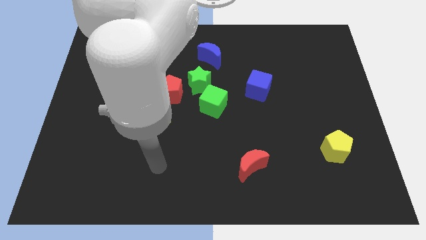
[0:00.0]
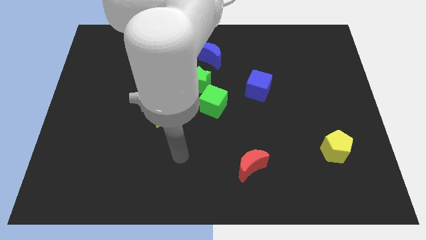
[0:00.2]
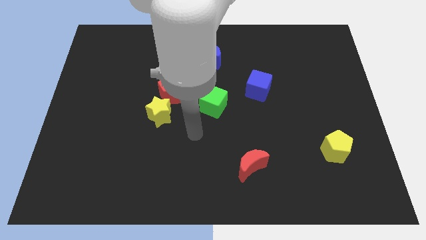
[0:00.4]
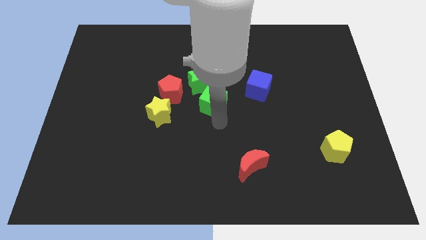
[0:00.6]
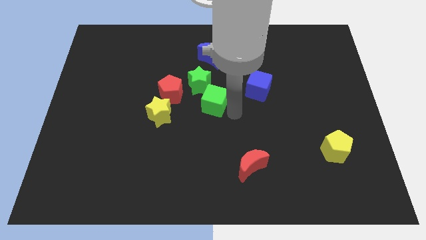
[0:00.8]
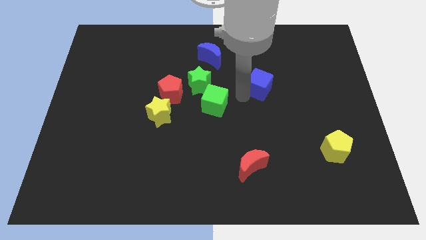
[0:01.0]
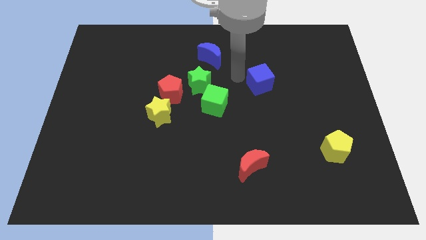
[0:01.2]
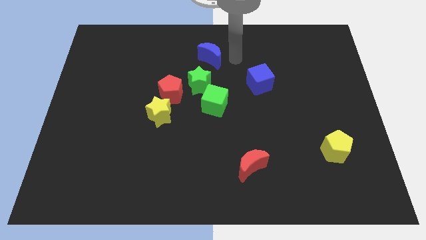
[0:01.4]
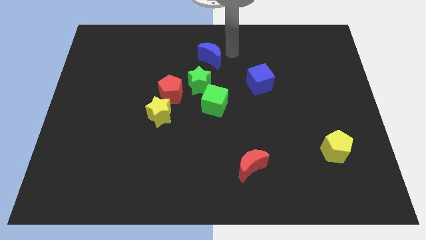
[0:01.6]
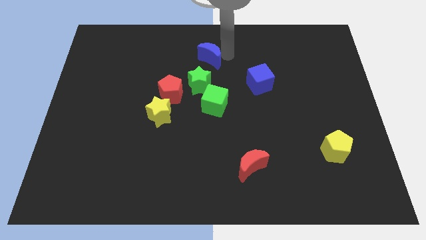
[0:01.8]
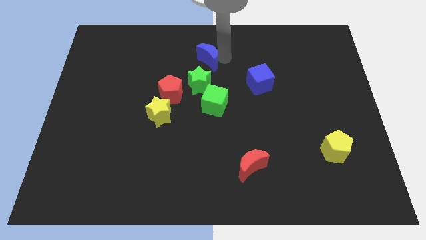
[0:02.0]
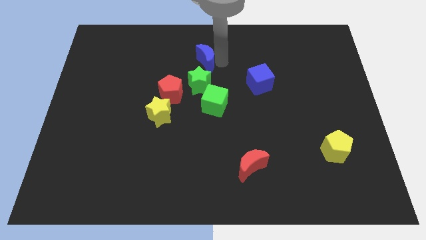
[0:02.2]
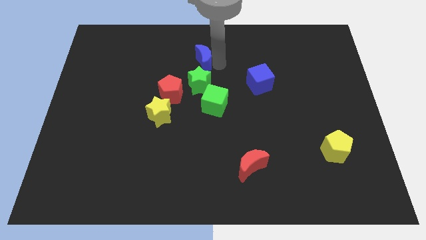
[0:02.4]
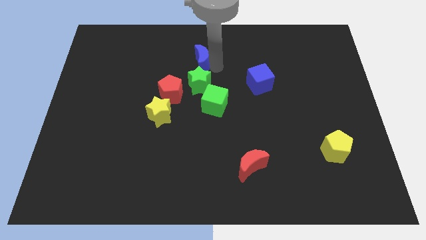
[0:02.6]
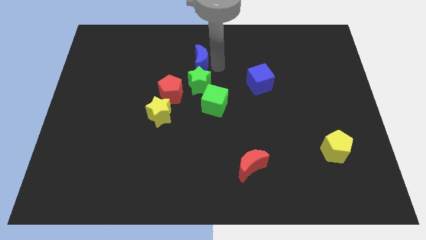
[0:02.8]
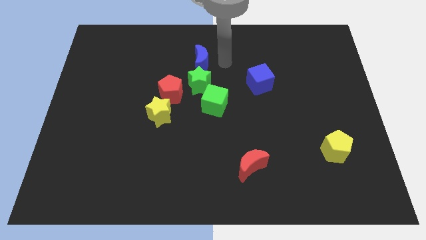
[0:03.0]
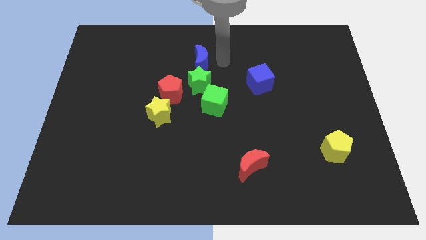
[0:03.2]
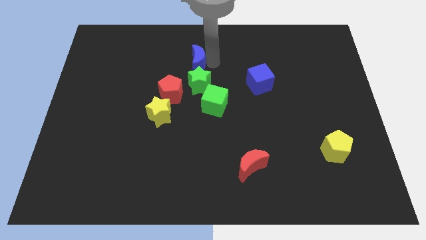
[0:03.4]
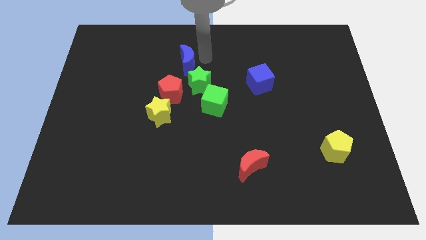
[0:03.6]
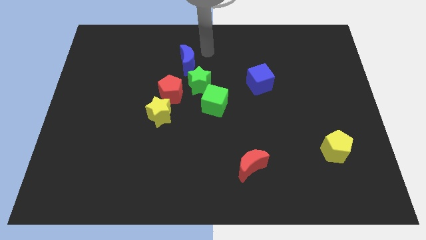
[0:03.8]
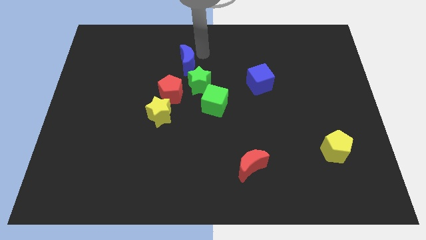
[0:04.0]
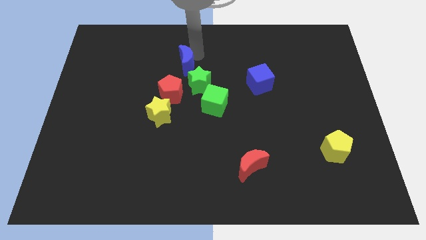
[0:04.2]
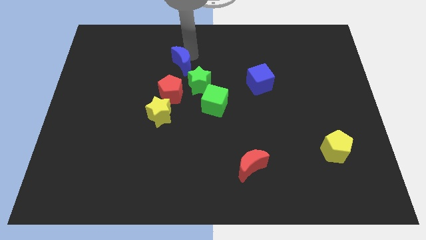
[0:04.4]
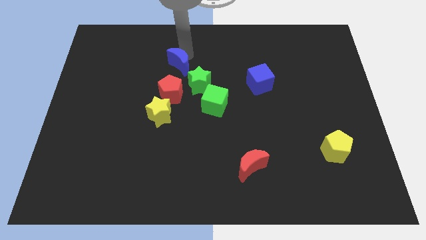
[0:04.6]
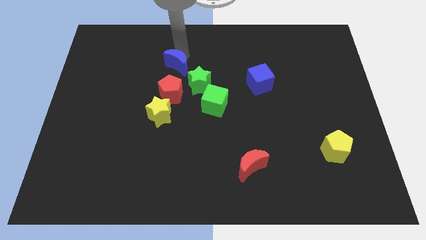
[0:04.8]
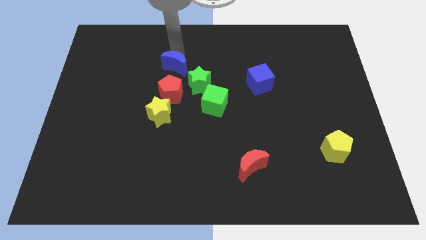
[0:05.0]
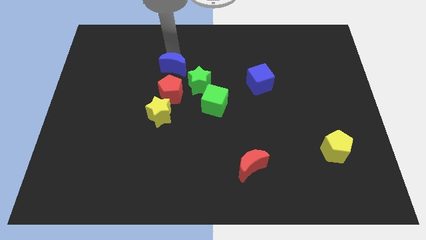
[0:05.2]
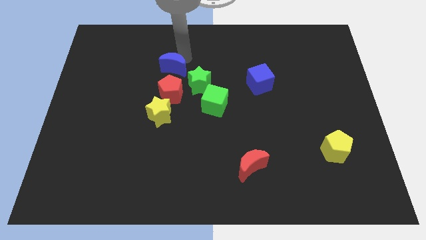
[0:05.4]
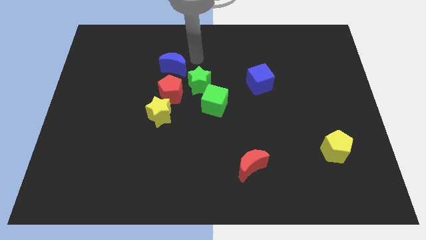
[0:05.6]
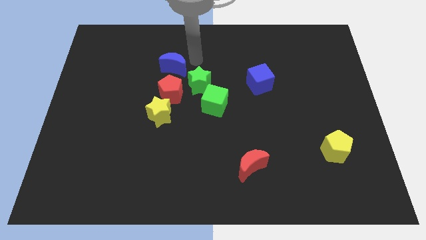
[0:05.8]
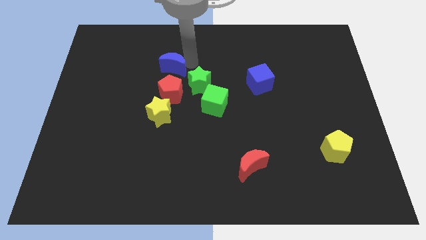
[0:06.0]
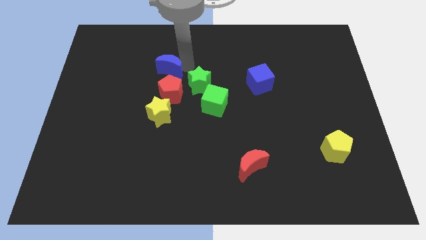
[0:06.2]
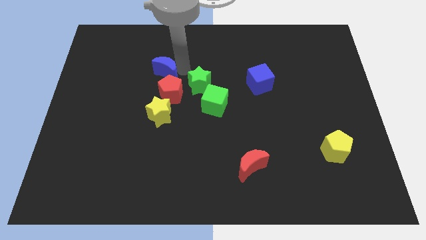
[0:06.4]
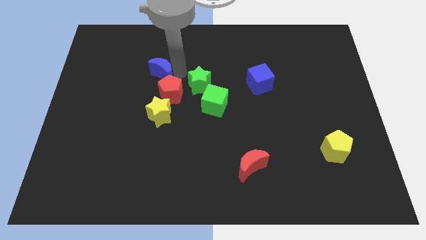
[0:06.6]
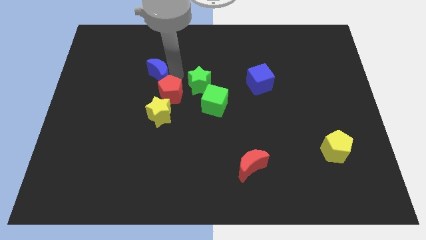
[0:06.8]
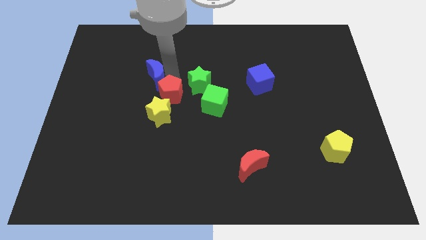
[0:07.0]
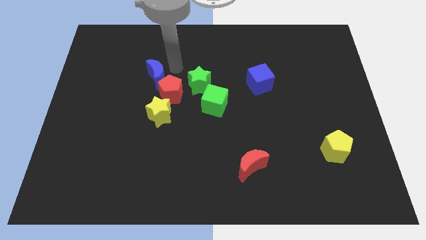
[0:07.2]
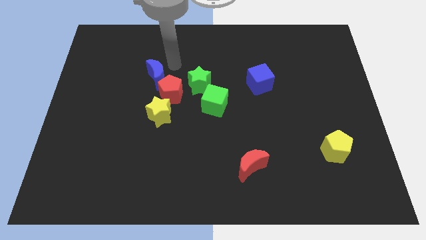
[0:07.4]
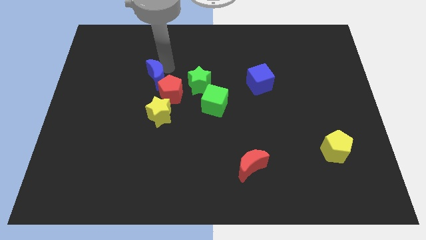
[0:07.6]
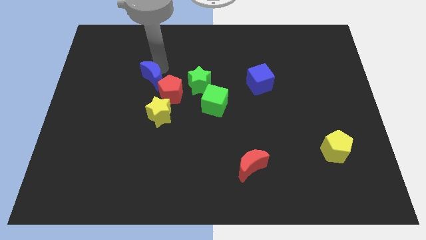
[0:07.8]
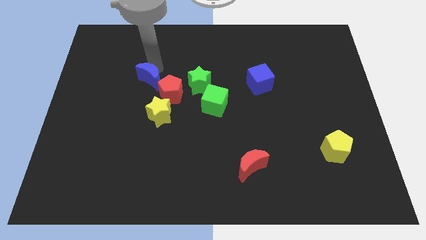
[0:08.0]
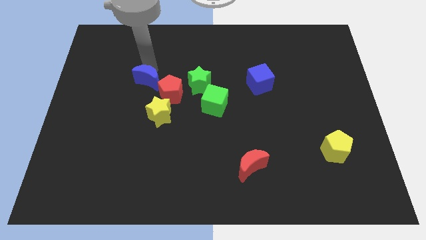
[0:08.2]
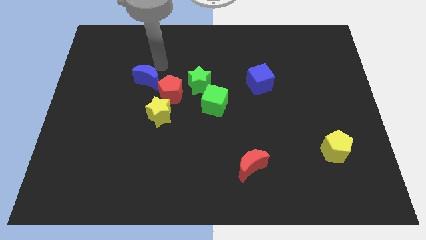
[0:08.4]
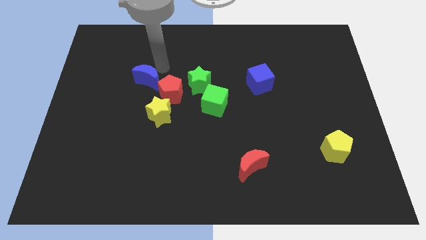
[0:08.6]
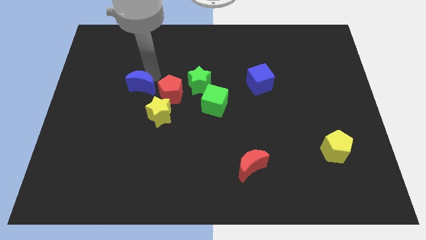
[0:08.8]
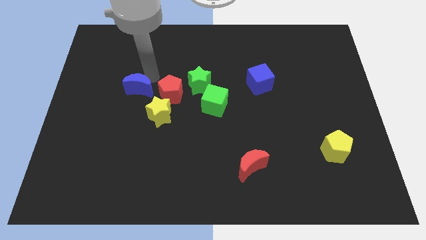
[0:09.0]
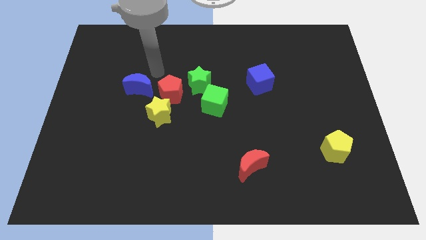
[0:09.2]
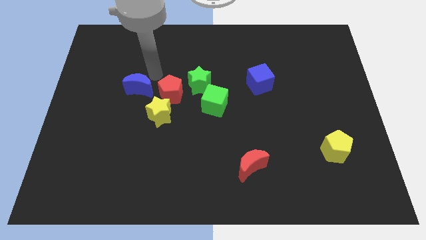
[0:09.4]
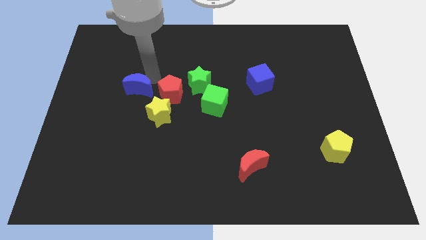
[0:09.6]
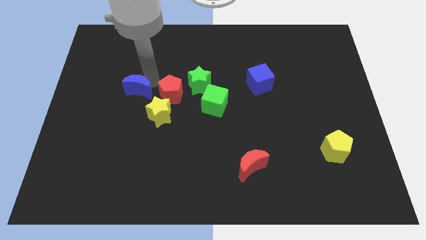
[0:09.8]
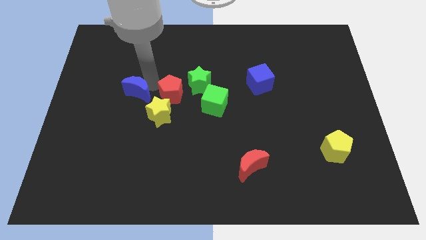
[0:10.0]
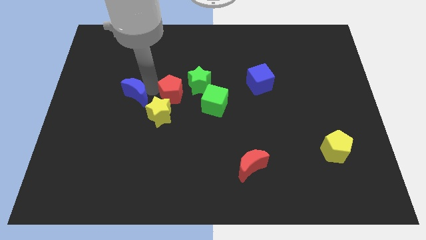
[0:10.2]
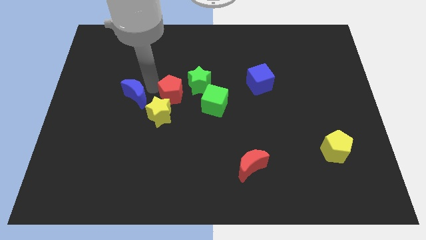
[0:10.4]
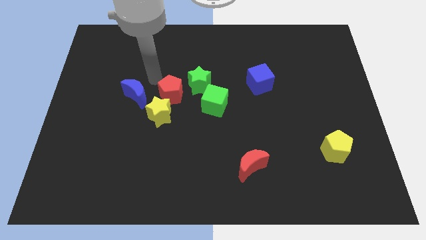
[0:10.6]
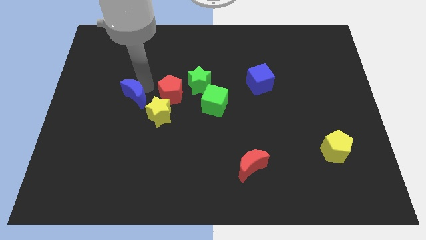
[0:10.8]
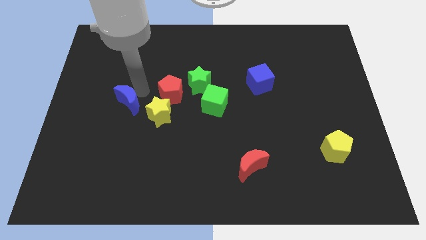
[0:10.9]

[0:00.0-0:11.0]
push the blue moon just left of the yellow star

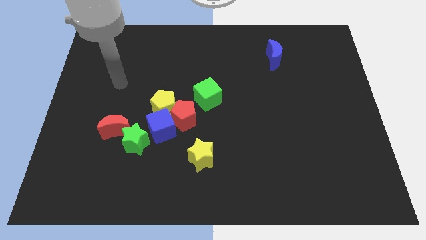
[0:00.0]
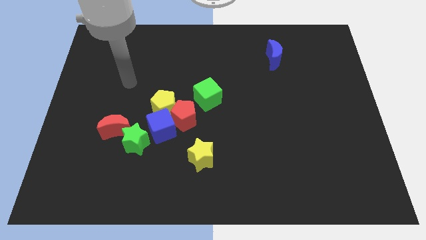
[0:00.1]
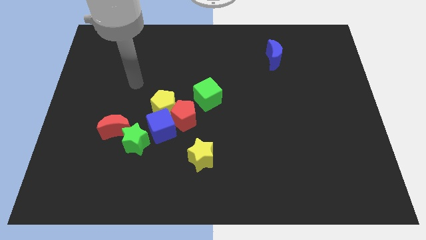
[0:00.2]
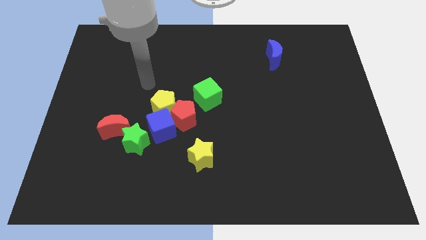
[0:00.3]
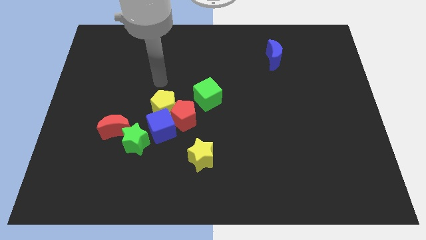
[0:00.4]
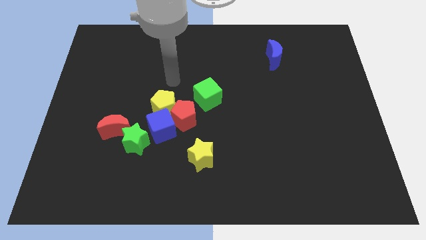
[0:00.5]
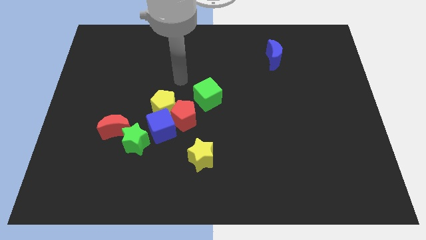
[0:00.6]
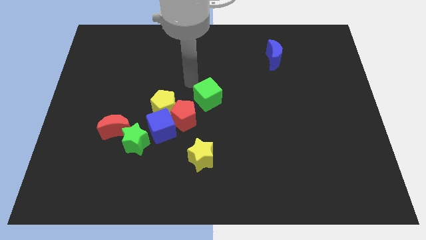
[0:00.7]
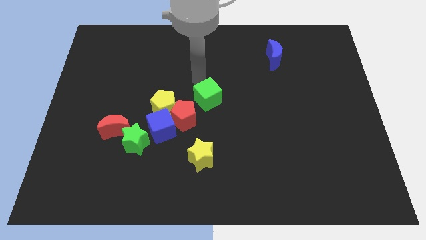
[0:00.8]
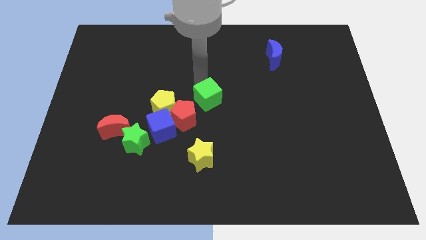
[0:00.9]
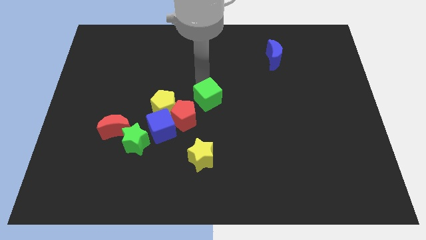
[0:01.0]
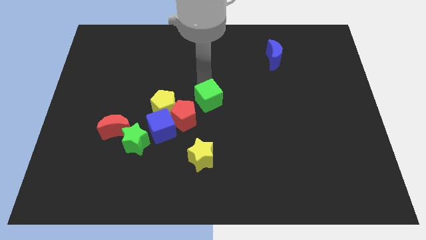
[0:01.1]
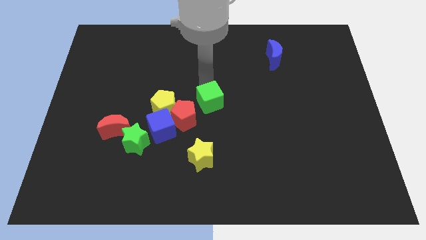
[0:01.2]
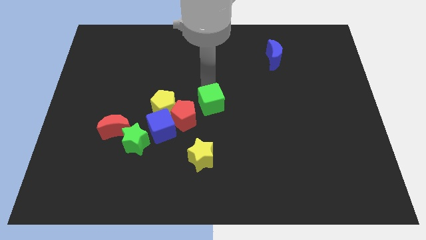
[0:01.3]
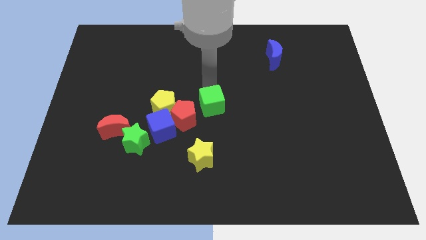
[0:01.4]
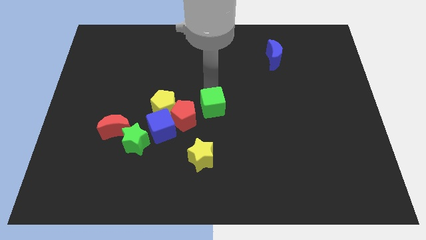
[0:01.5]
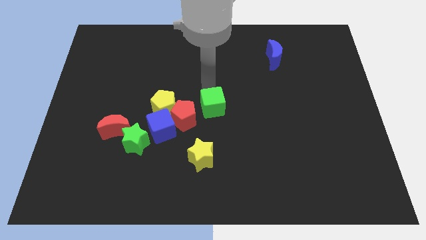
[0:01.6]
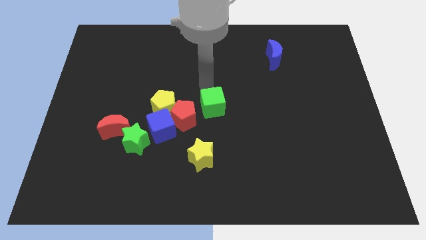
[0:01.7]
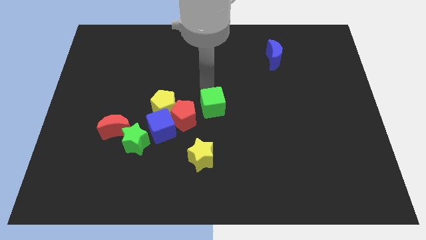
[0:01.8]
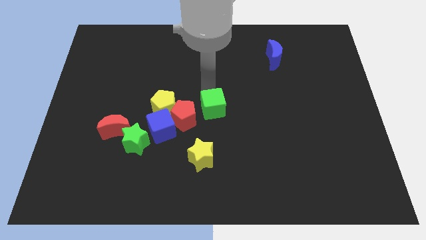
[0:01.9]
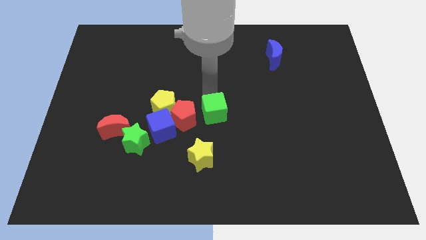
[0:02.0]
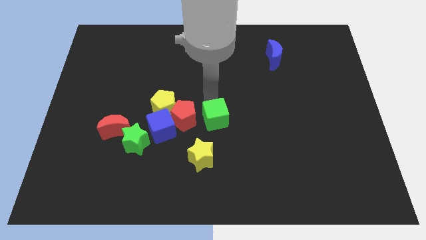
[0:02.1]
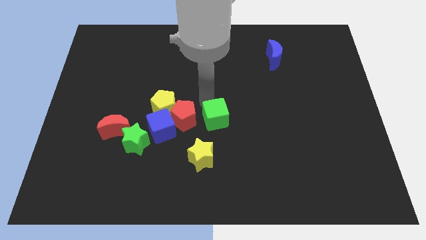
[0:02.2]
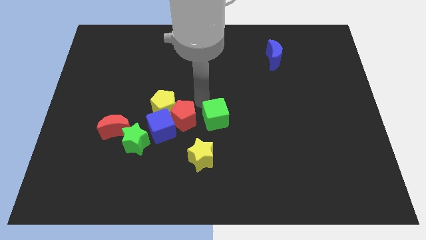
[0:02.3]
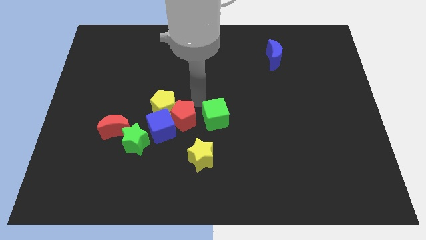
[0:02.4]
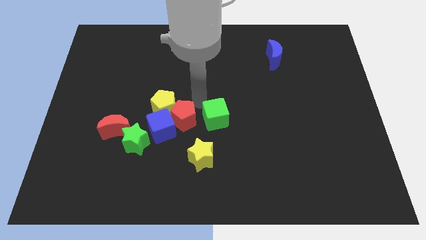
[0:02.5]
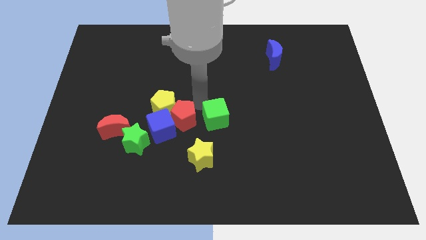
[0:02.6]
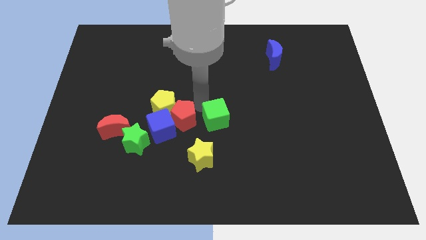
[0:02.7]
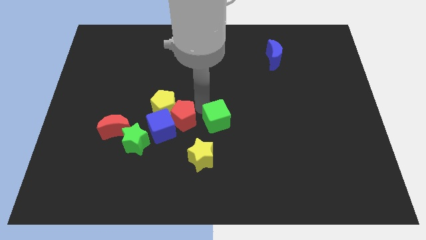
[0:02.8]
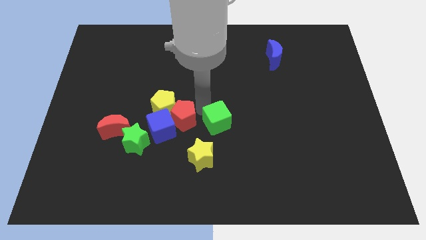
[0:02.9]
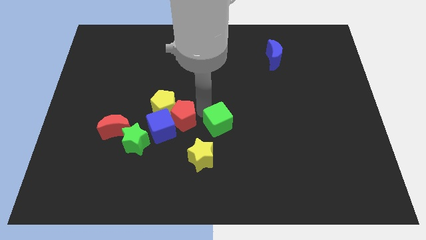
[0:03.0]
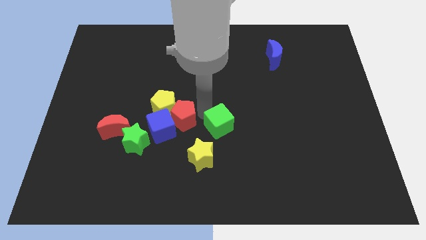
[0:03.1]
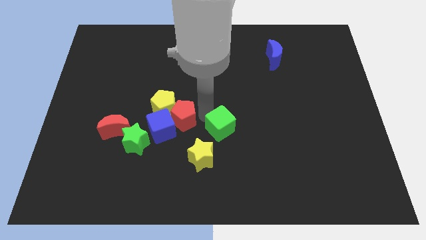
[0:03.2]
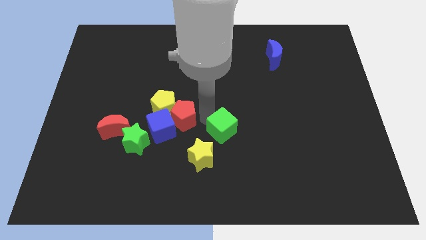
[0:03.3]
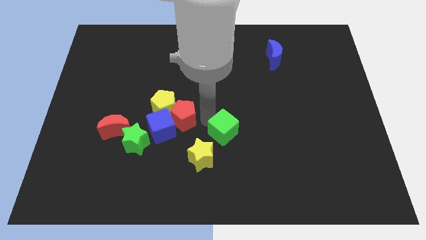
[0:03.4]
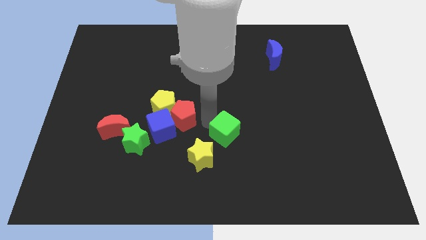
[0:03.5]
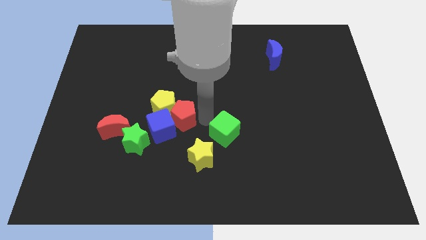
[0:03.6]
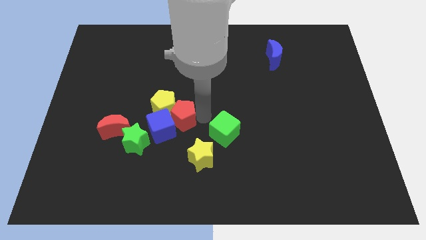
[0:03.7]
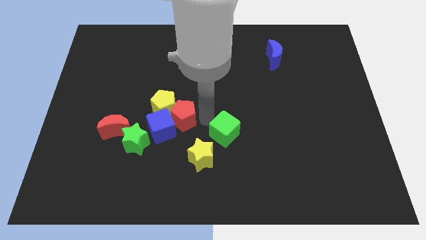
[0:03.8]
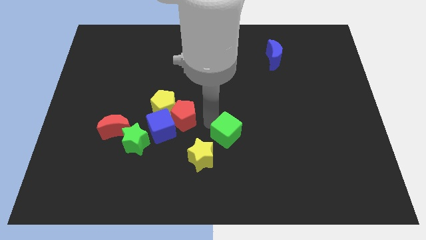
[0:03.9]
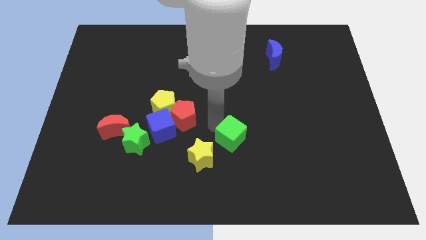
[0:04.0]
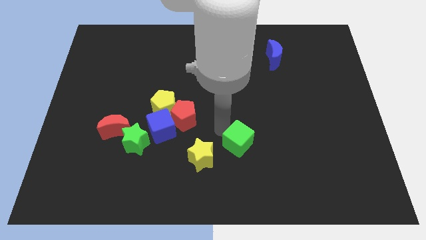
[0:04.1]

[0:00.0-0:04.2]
move the green cube just right of the yellow star
